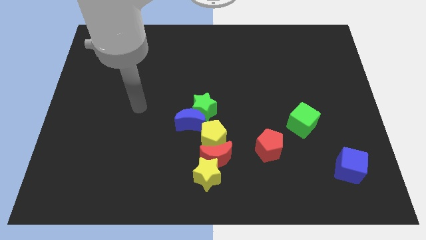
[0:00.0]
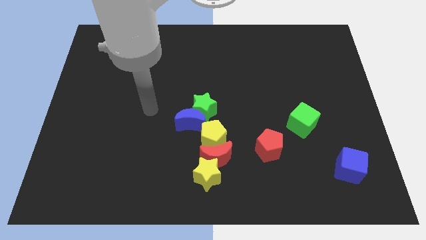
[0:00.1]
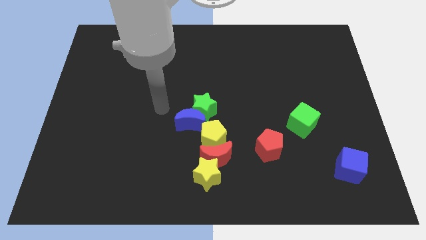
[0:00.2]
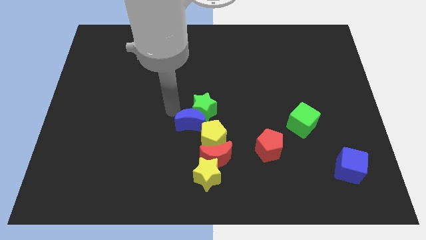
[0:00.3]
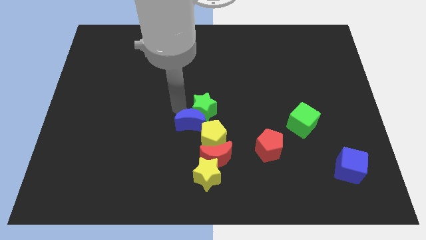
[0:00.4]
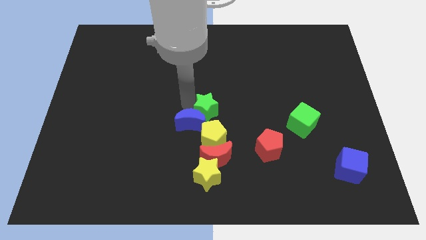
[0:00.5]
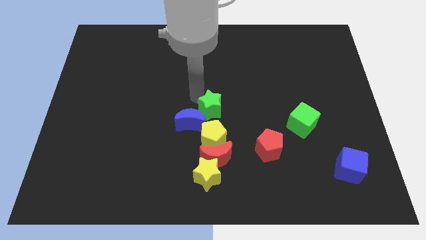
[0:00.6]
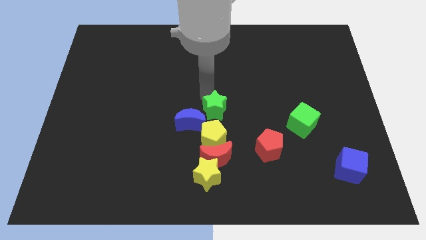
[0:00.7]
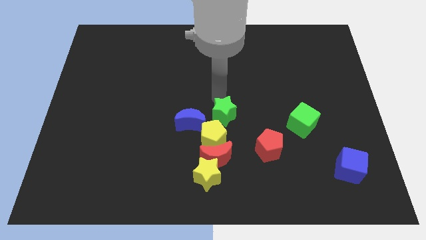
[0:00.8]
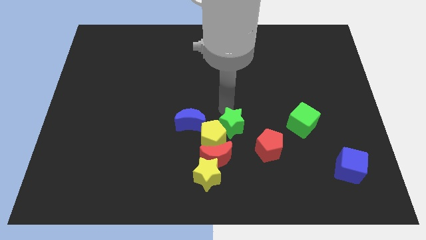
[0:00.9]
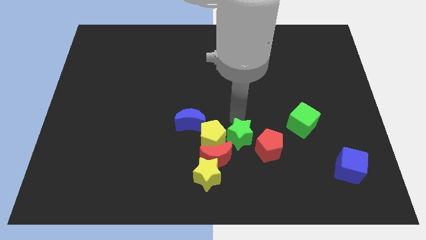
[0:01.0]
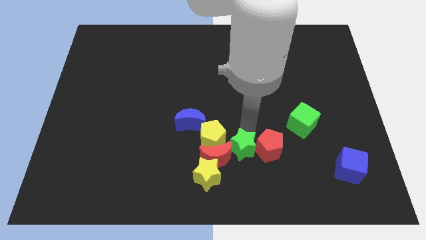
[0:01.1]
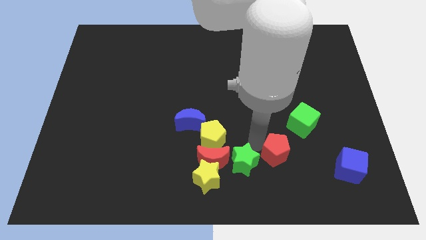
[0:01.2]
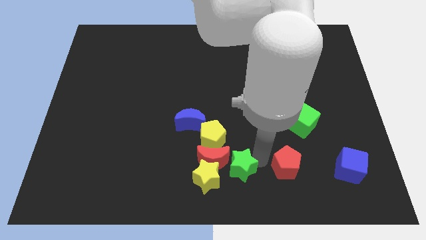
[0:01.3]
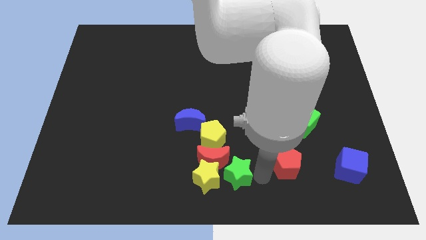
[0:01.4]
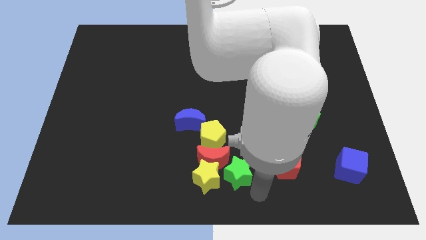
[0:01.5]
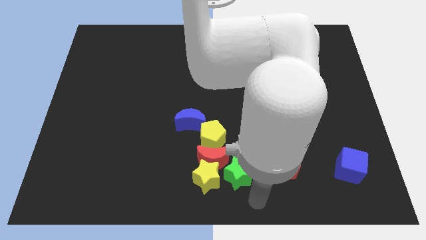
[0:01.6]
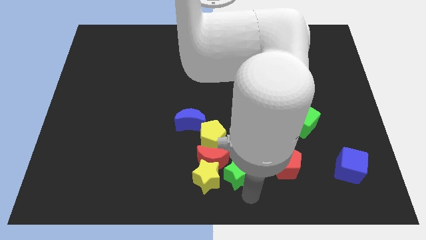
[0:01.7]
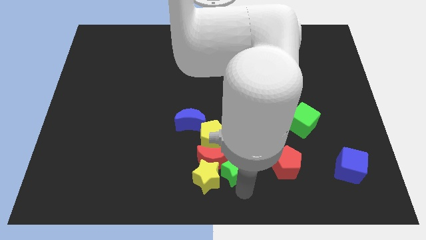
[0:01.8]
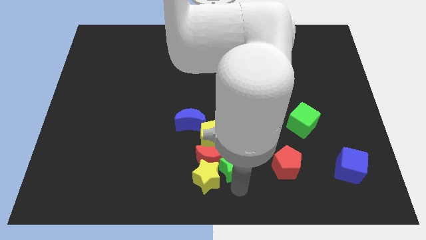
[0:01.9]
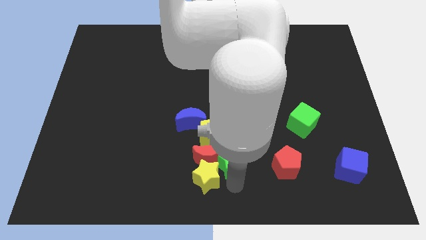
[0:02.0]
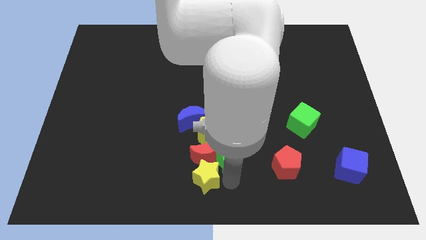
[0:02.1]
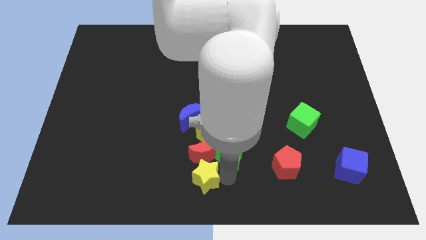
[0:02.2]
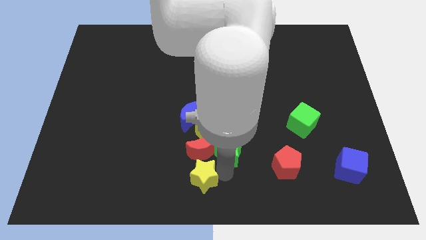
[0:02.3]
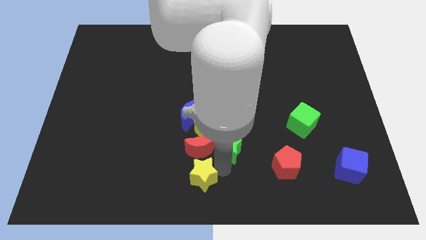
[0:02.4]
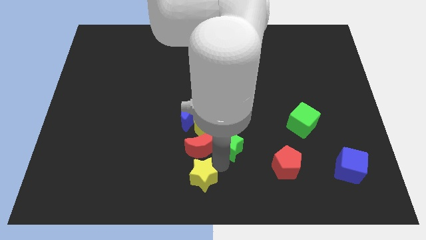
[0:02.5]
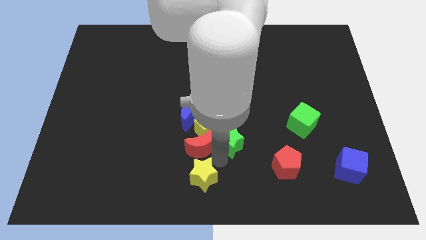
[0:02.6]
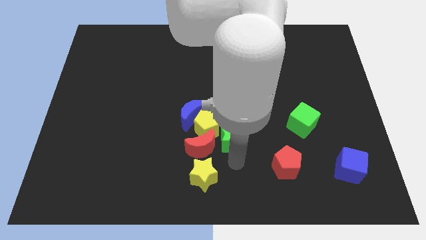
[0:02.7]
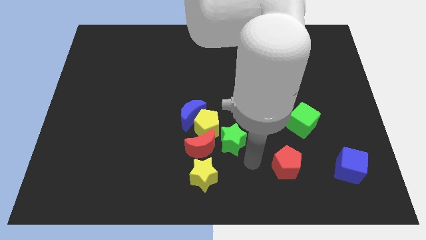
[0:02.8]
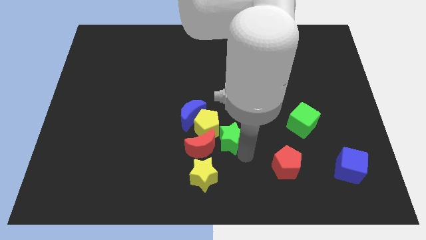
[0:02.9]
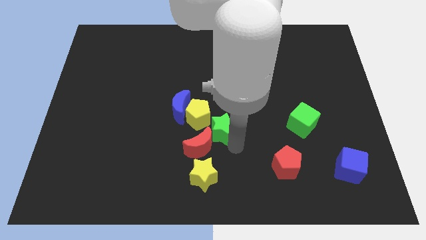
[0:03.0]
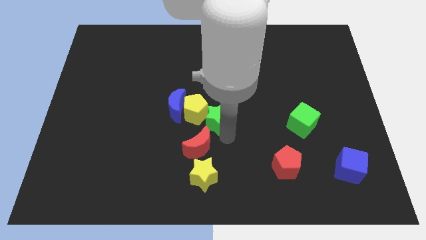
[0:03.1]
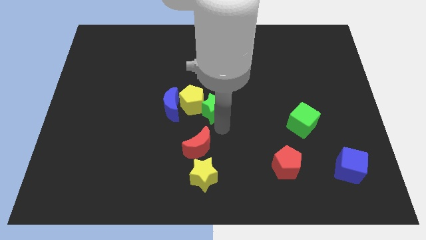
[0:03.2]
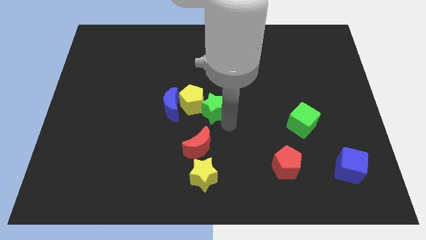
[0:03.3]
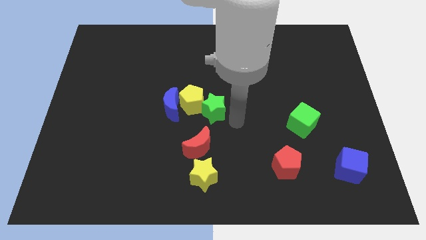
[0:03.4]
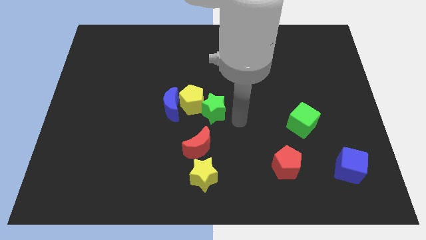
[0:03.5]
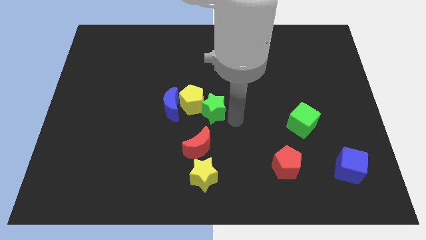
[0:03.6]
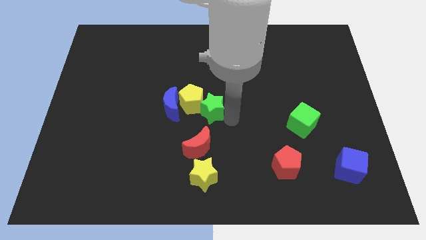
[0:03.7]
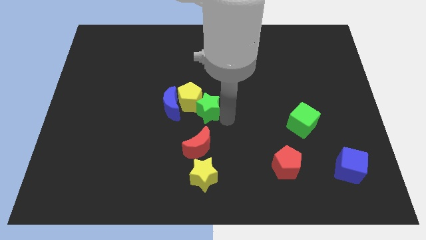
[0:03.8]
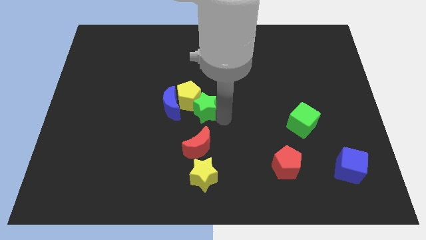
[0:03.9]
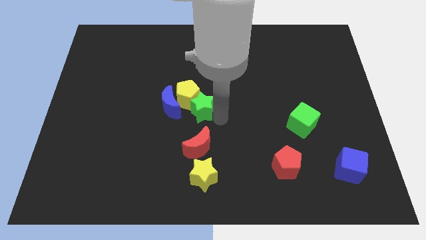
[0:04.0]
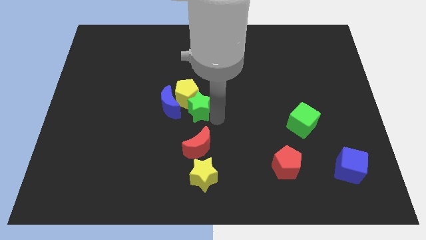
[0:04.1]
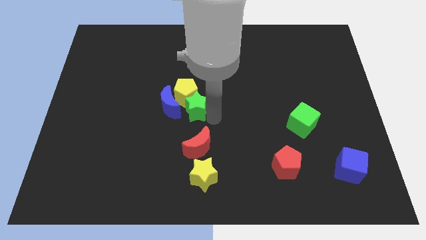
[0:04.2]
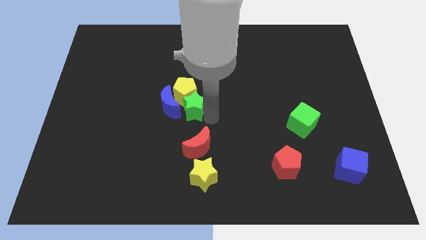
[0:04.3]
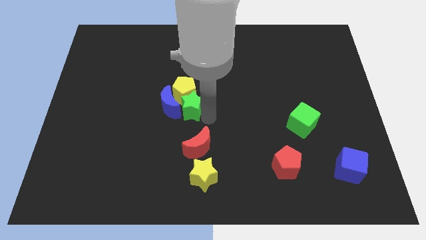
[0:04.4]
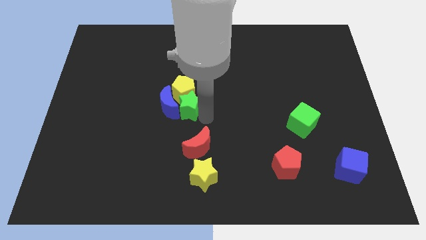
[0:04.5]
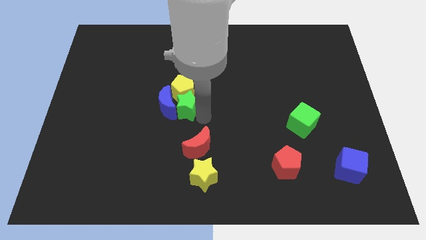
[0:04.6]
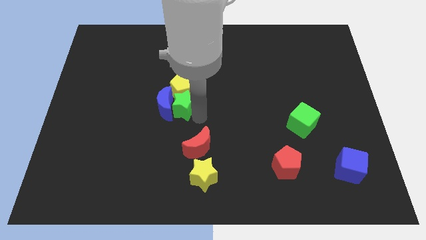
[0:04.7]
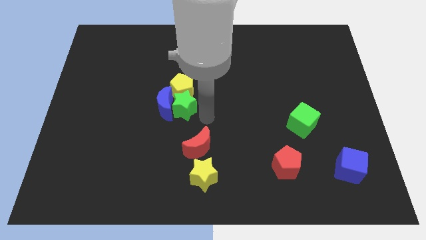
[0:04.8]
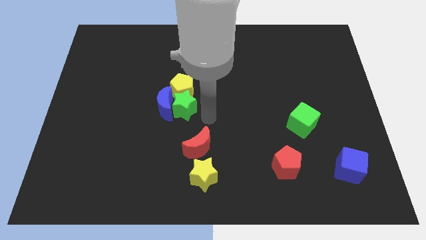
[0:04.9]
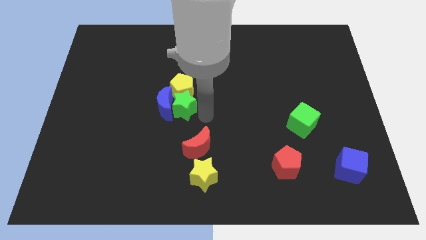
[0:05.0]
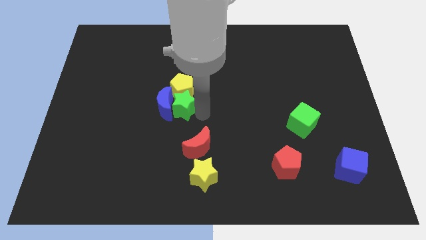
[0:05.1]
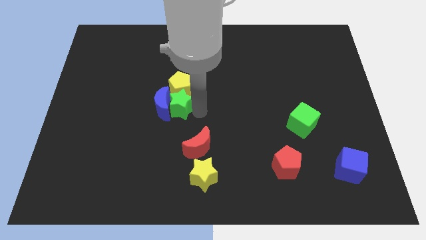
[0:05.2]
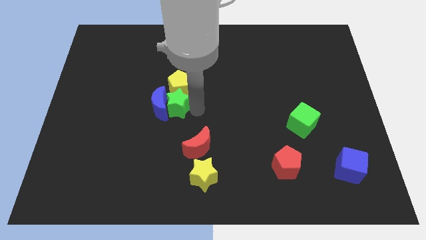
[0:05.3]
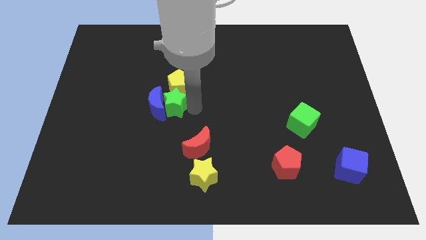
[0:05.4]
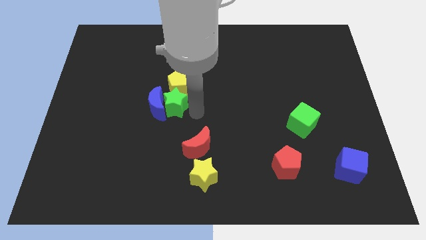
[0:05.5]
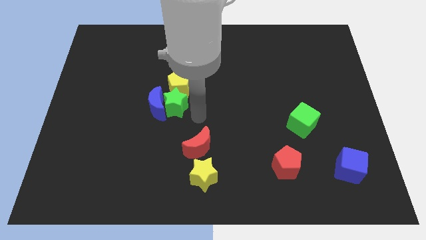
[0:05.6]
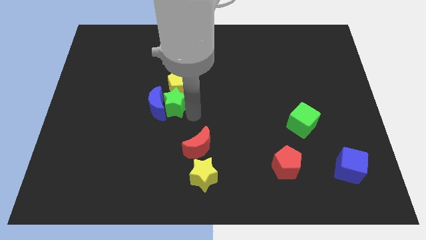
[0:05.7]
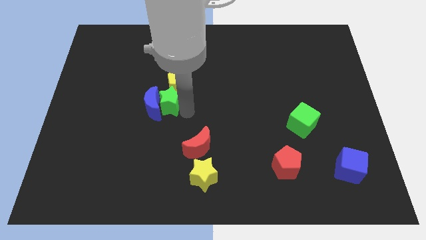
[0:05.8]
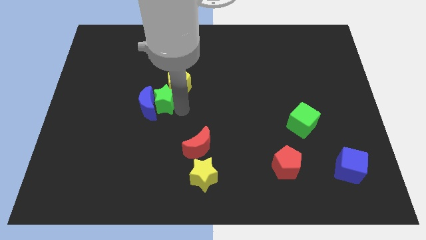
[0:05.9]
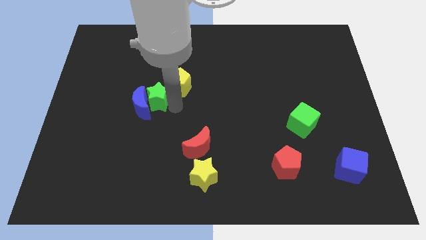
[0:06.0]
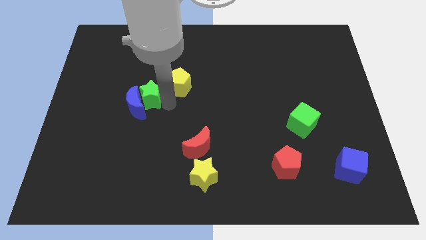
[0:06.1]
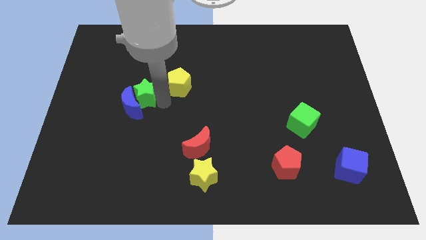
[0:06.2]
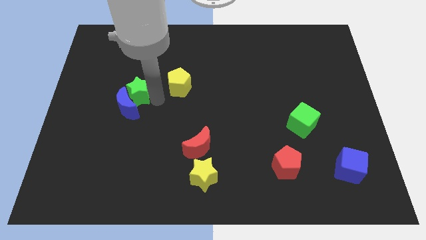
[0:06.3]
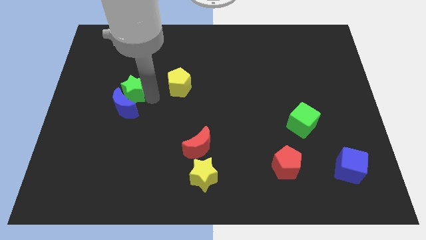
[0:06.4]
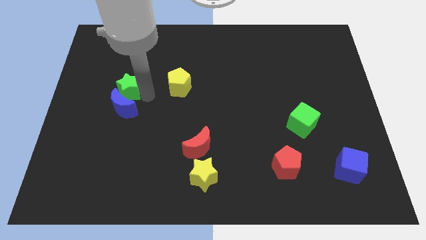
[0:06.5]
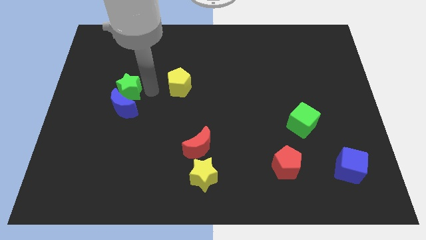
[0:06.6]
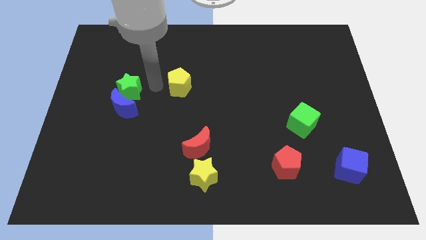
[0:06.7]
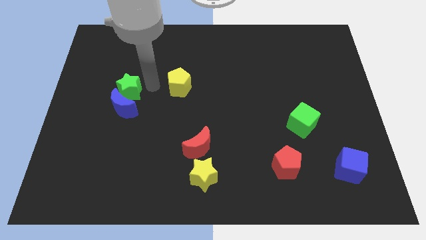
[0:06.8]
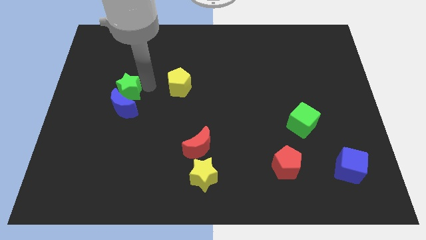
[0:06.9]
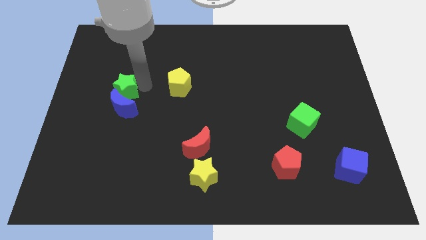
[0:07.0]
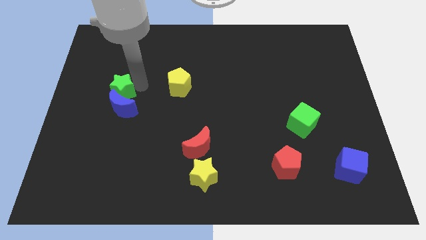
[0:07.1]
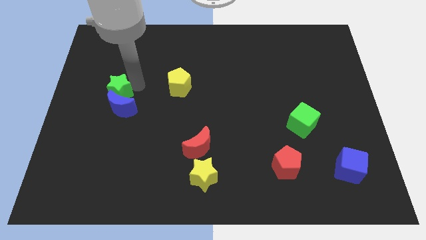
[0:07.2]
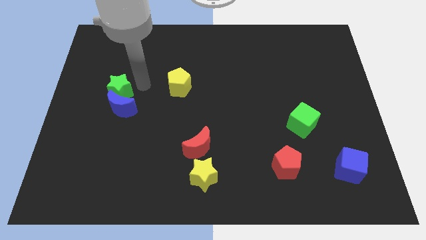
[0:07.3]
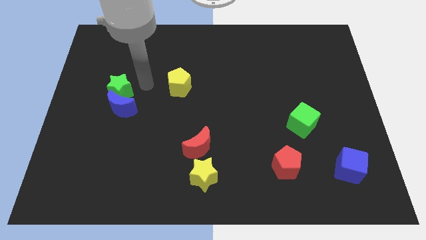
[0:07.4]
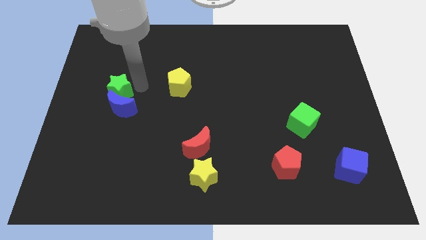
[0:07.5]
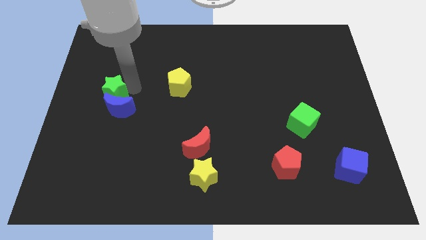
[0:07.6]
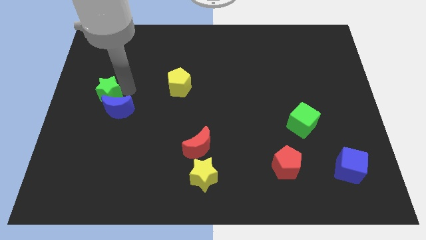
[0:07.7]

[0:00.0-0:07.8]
push the green star to the left side

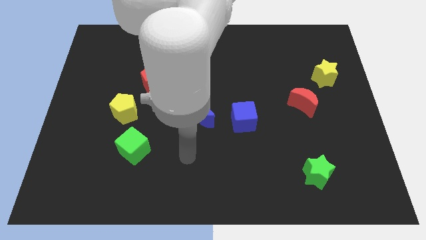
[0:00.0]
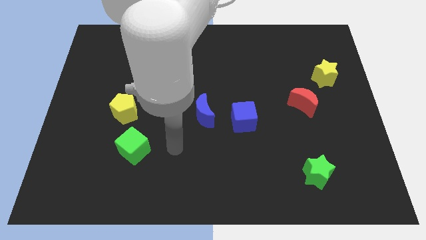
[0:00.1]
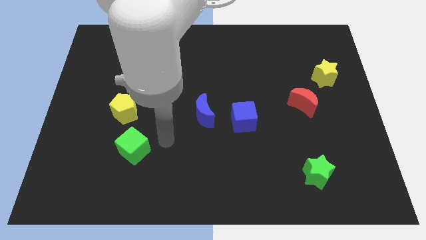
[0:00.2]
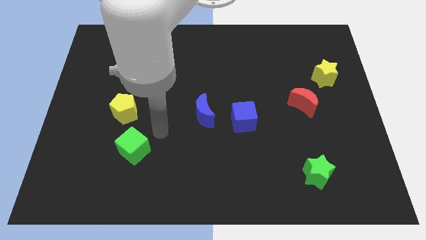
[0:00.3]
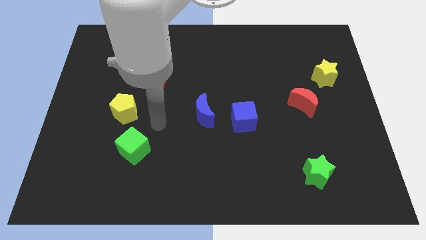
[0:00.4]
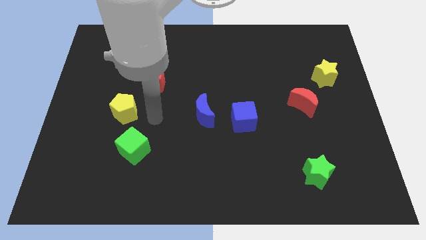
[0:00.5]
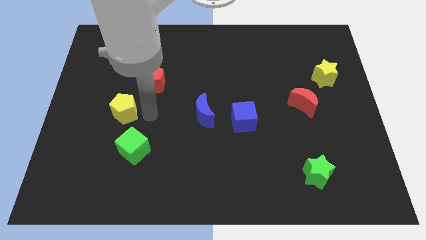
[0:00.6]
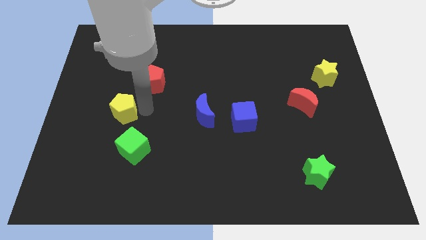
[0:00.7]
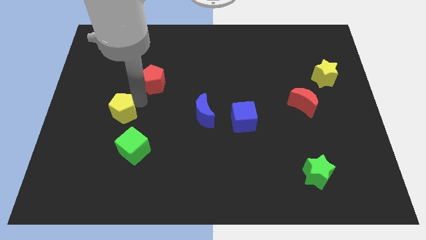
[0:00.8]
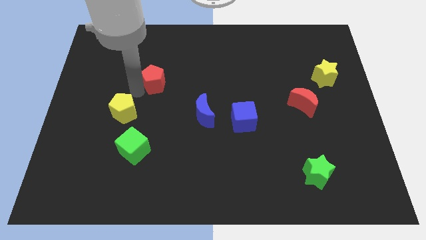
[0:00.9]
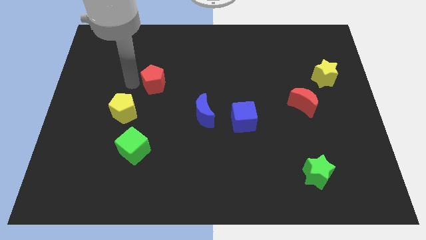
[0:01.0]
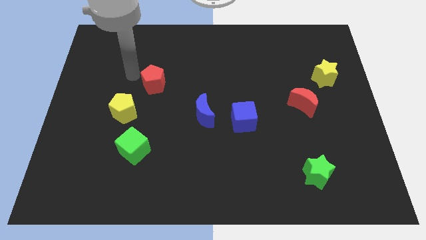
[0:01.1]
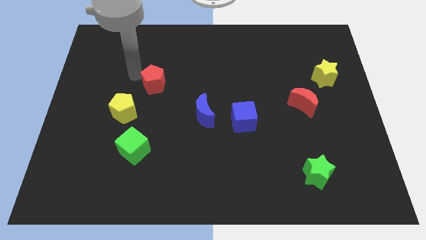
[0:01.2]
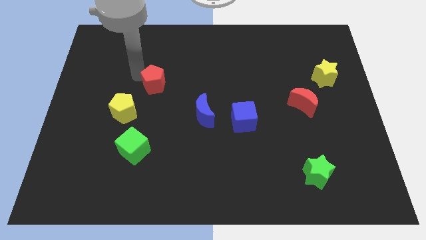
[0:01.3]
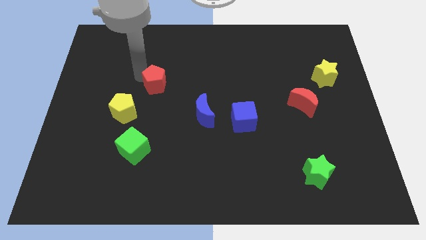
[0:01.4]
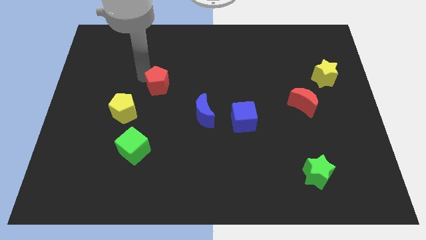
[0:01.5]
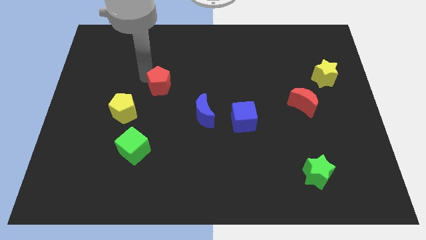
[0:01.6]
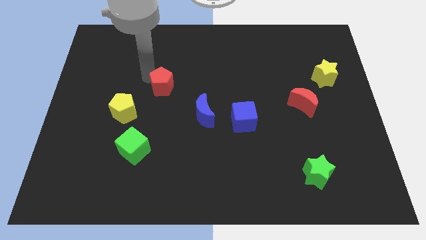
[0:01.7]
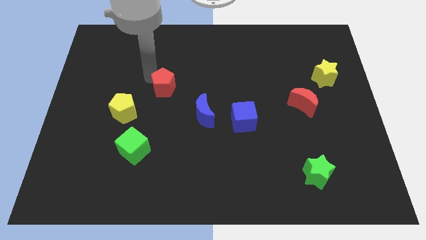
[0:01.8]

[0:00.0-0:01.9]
slide the red pentagon to the center of the board
